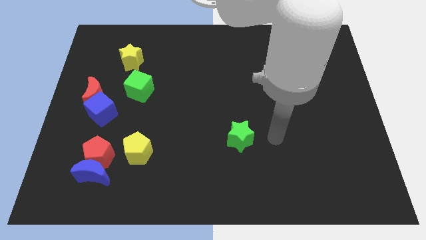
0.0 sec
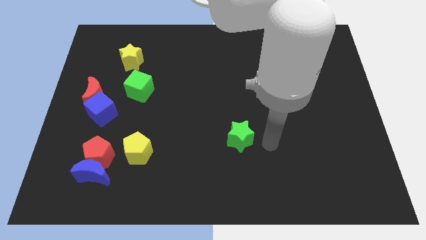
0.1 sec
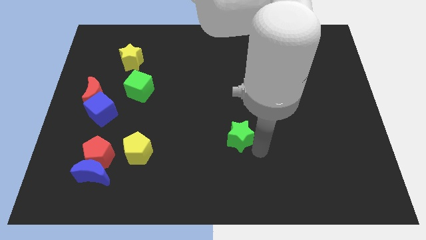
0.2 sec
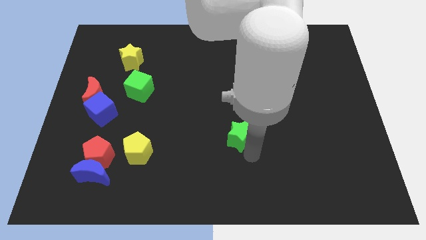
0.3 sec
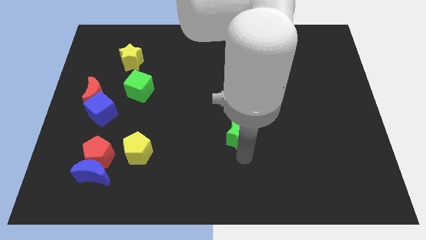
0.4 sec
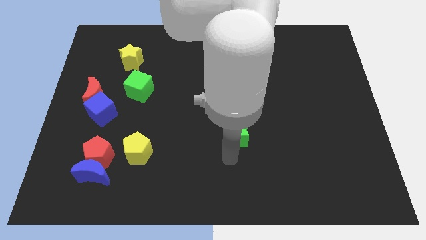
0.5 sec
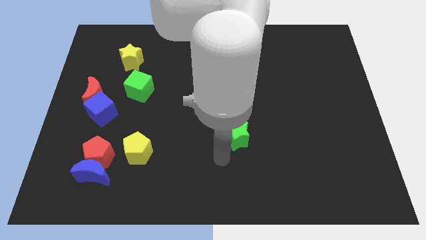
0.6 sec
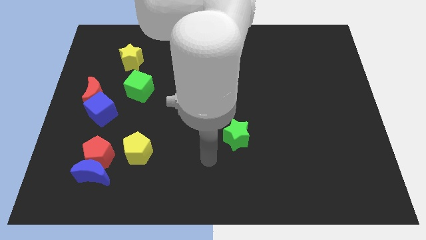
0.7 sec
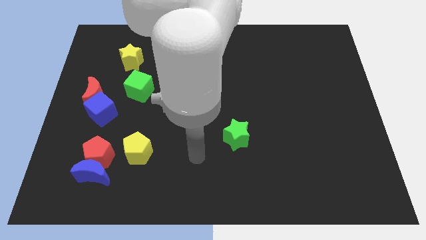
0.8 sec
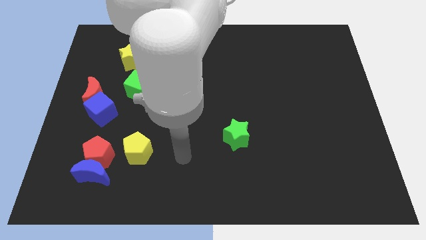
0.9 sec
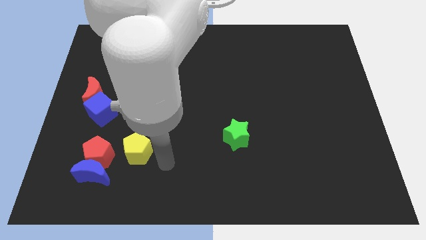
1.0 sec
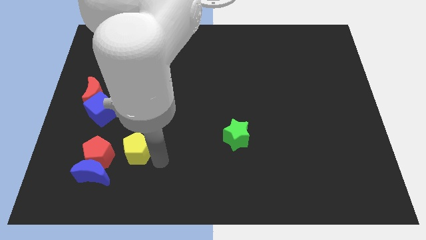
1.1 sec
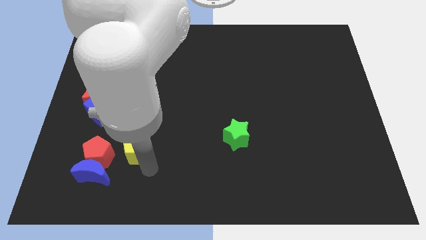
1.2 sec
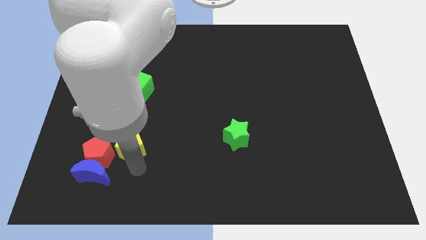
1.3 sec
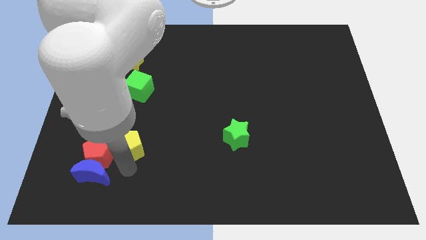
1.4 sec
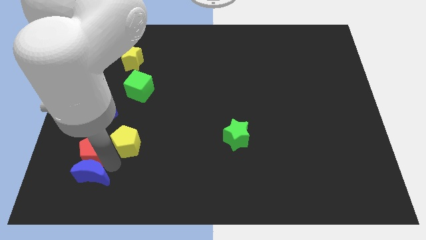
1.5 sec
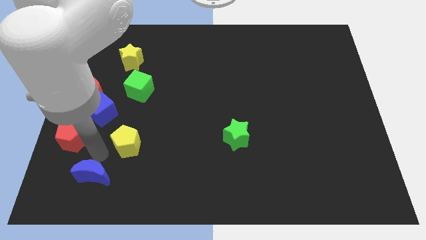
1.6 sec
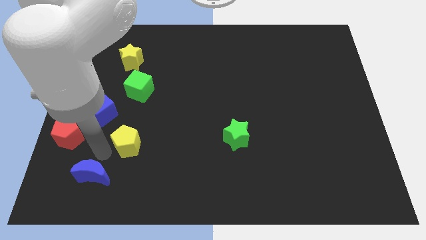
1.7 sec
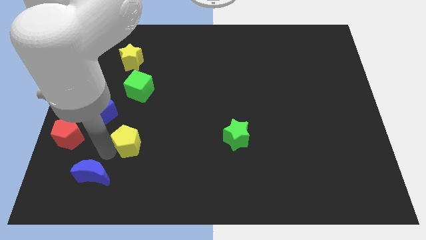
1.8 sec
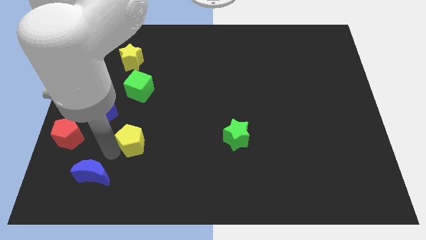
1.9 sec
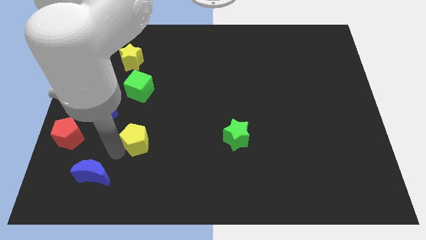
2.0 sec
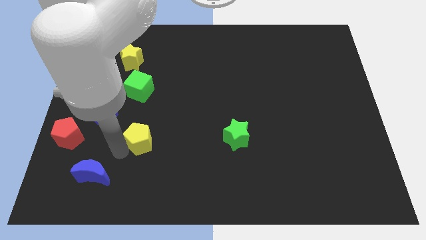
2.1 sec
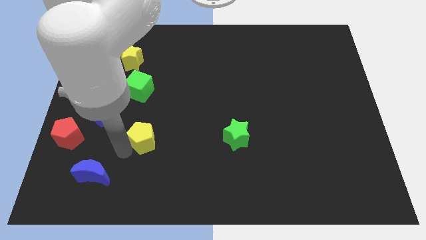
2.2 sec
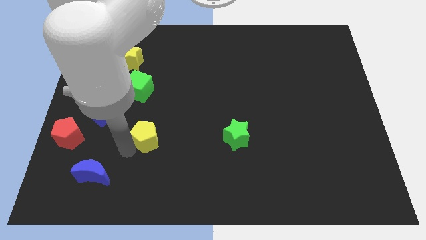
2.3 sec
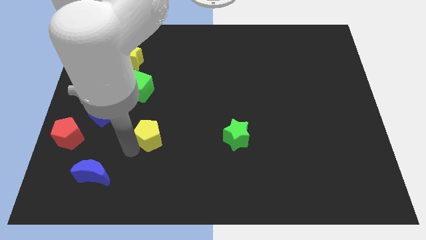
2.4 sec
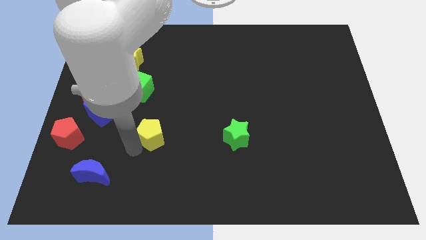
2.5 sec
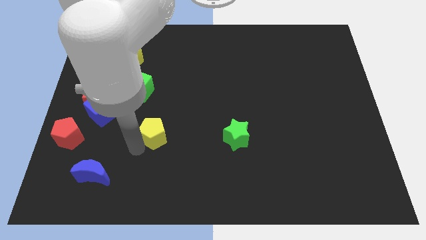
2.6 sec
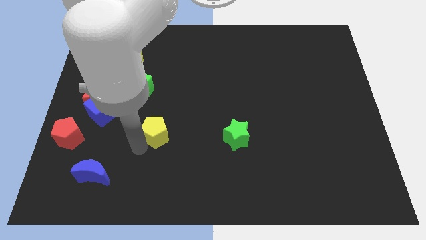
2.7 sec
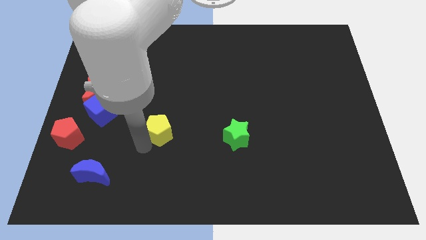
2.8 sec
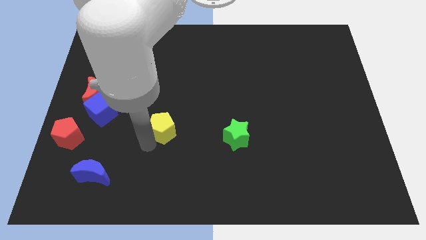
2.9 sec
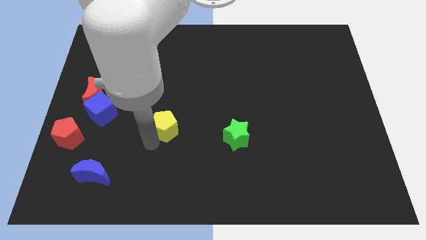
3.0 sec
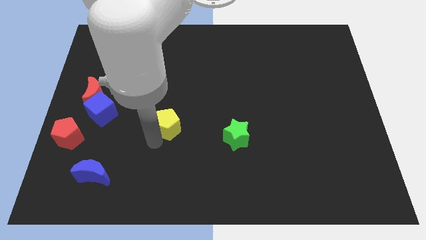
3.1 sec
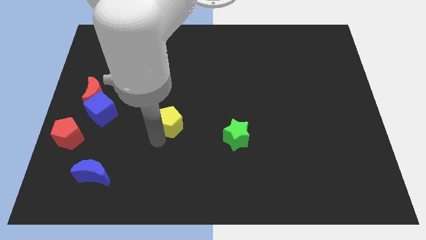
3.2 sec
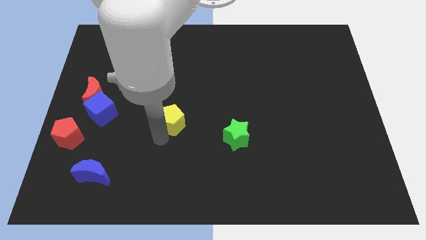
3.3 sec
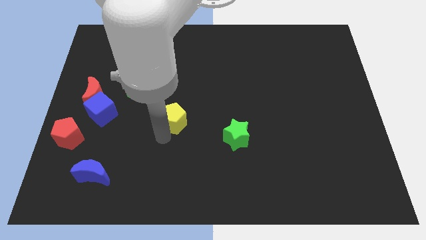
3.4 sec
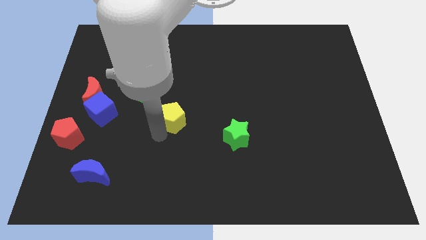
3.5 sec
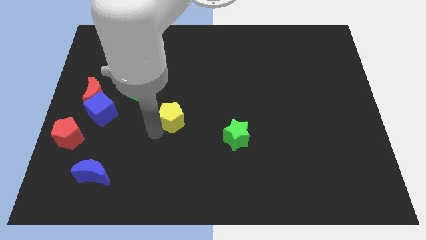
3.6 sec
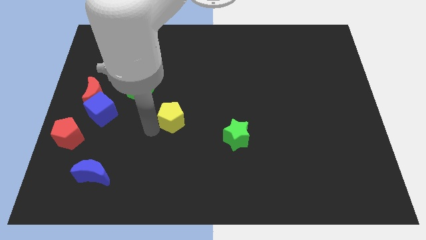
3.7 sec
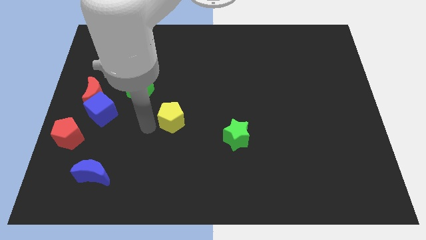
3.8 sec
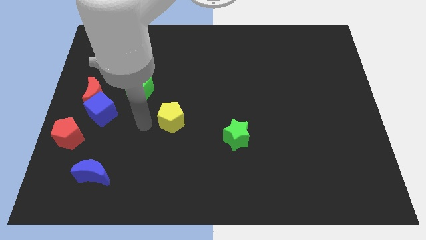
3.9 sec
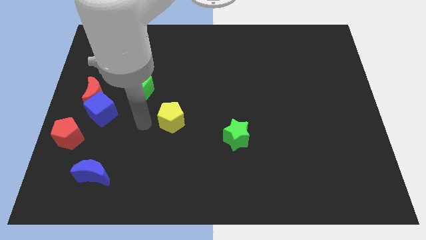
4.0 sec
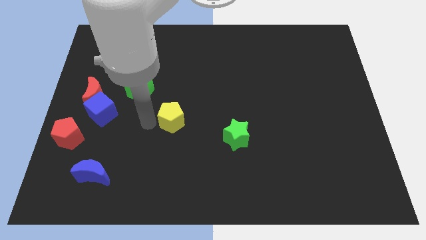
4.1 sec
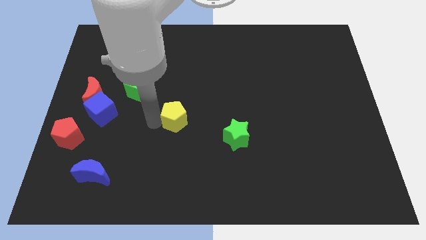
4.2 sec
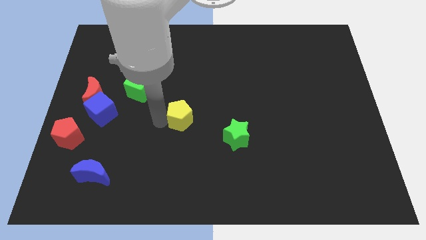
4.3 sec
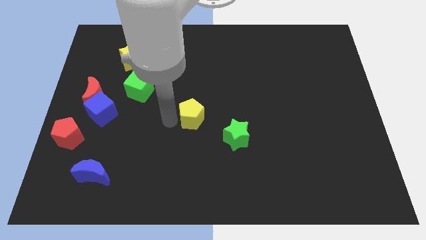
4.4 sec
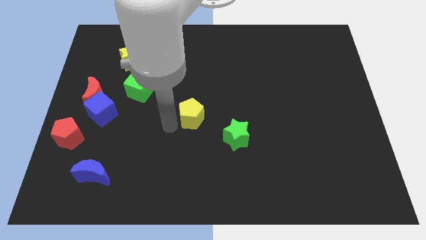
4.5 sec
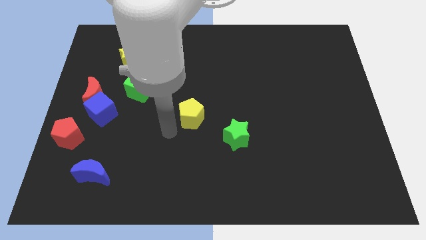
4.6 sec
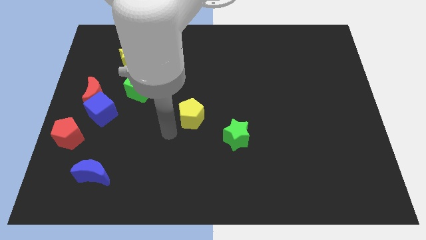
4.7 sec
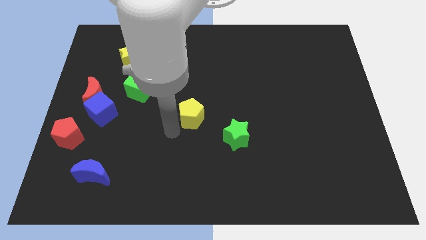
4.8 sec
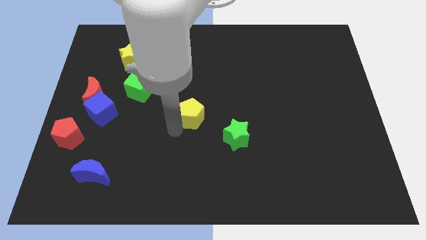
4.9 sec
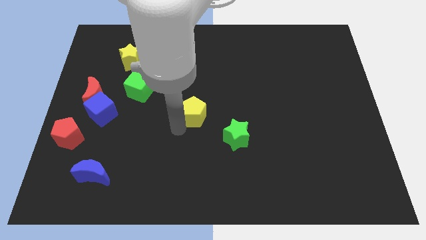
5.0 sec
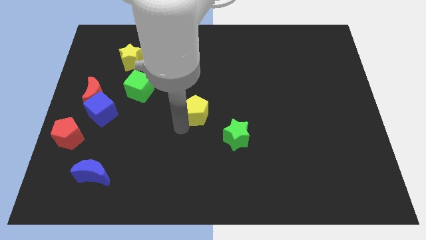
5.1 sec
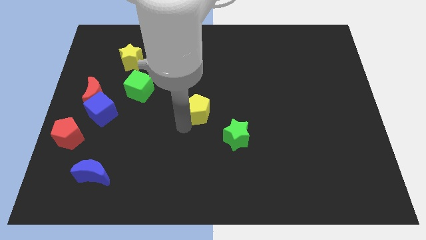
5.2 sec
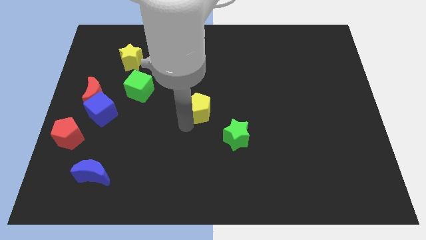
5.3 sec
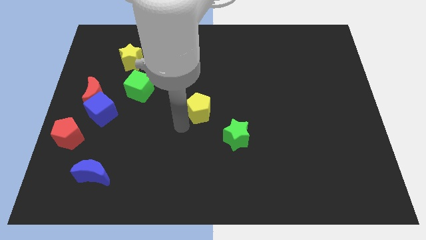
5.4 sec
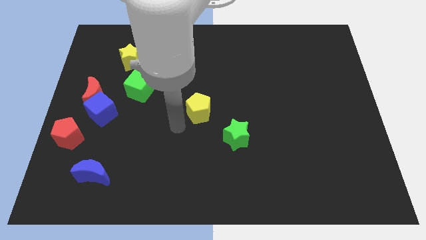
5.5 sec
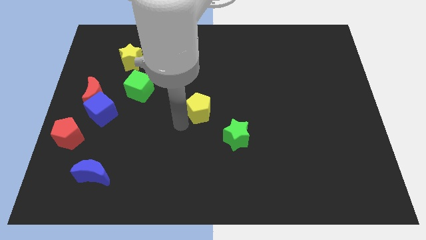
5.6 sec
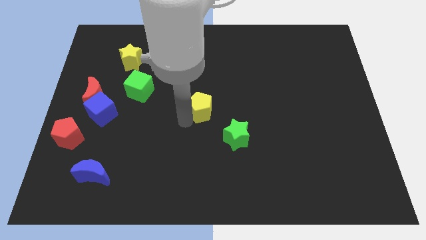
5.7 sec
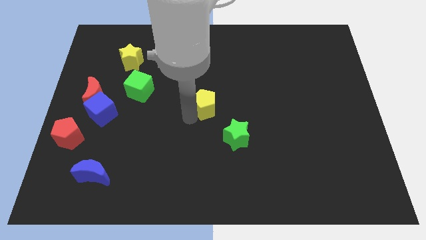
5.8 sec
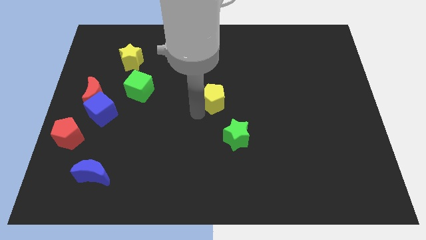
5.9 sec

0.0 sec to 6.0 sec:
move the yellow pentagon diagonally upwards and right

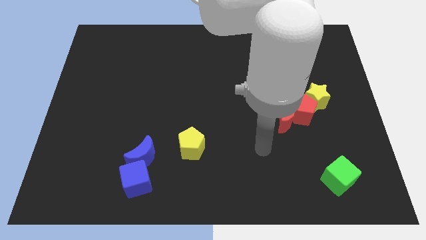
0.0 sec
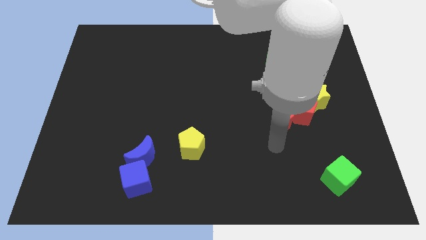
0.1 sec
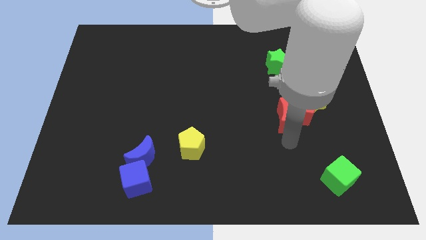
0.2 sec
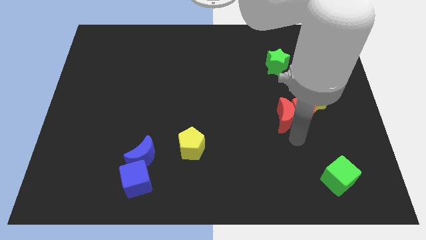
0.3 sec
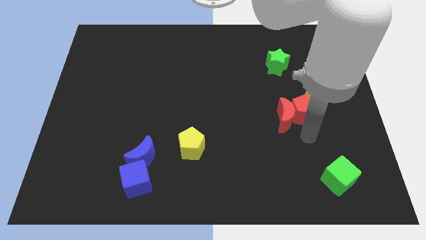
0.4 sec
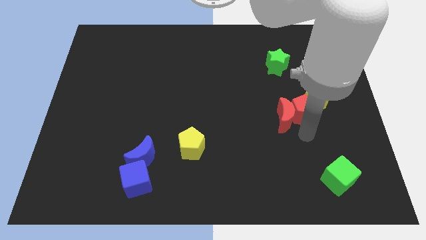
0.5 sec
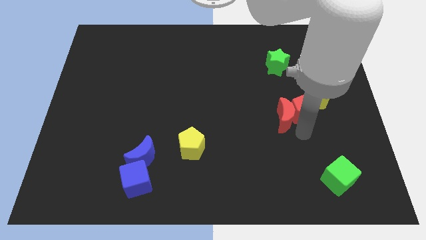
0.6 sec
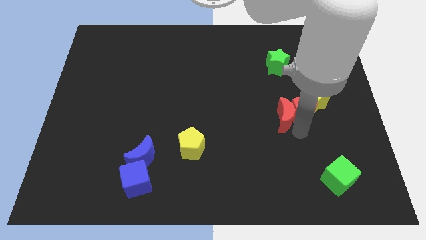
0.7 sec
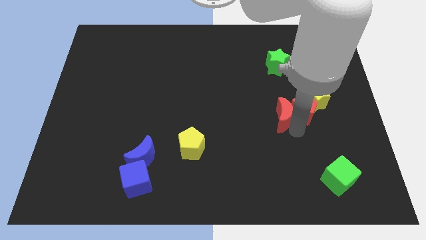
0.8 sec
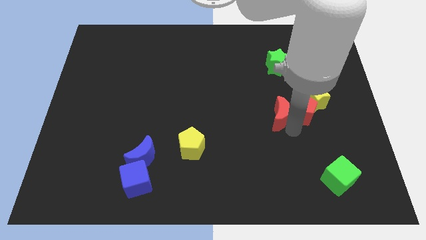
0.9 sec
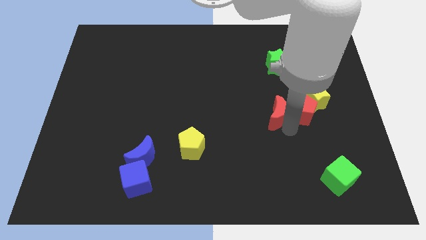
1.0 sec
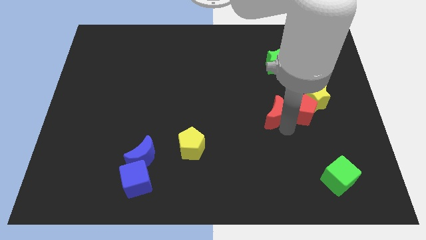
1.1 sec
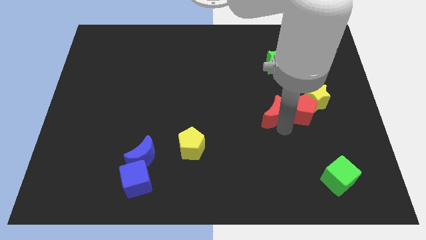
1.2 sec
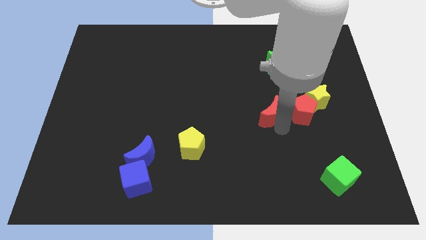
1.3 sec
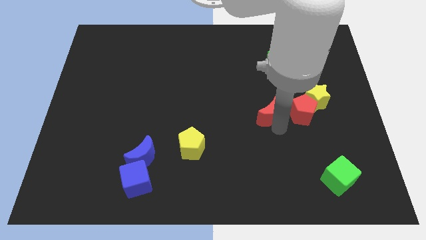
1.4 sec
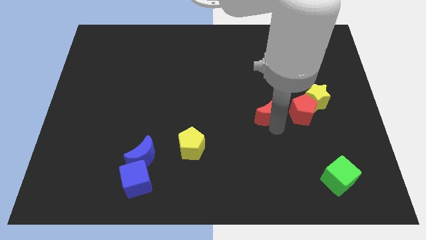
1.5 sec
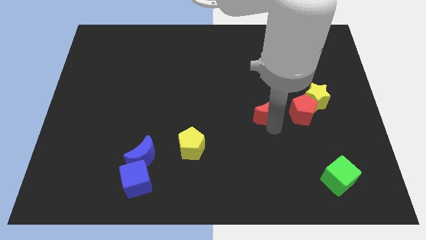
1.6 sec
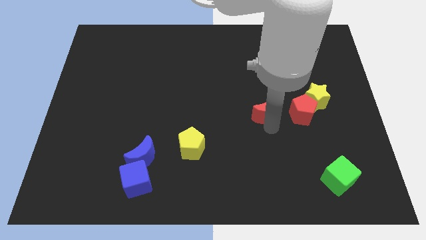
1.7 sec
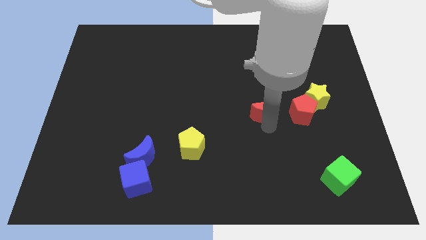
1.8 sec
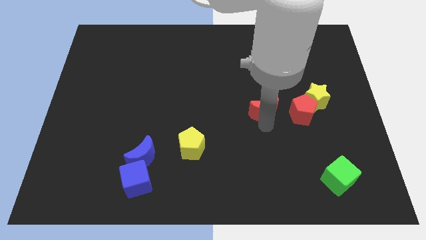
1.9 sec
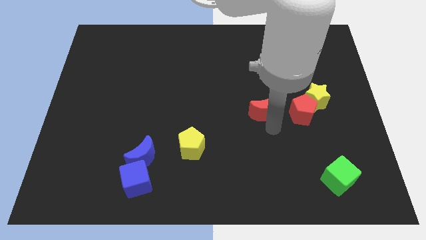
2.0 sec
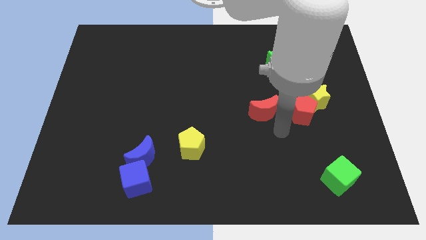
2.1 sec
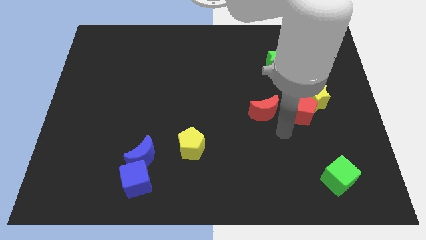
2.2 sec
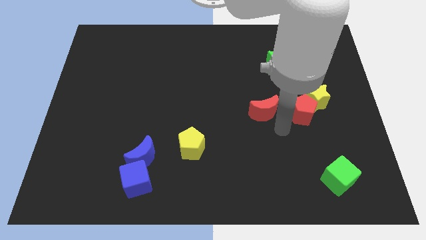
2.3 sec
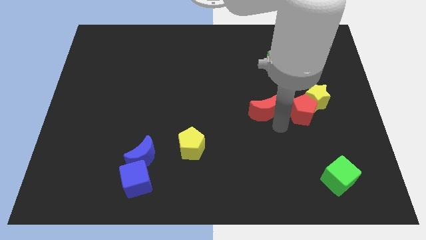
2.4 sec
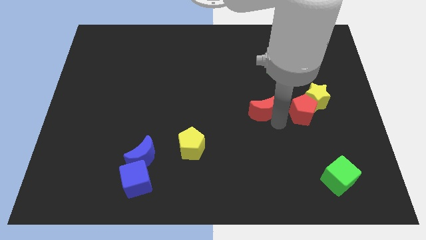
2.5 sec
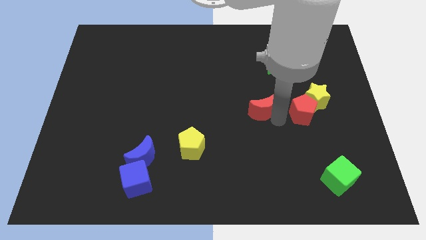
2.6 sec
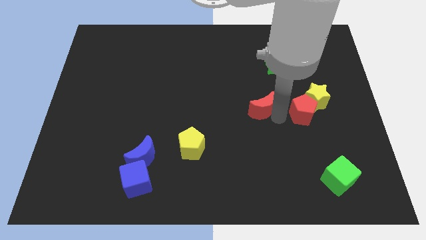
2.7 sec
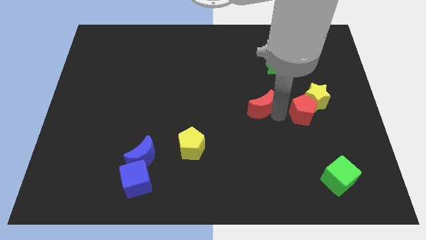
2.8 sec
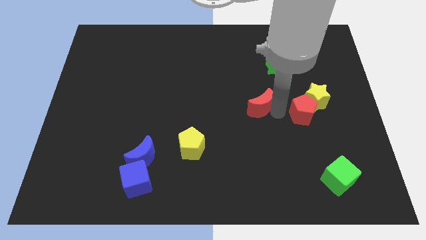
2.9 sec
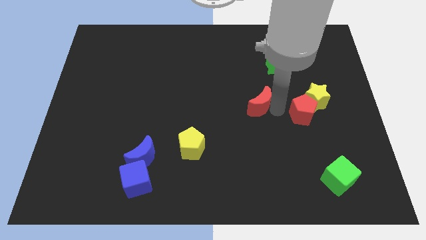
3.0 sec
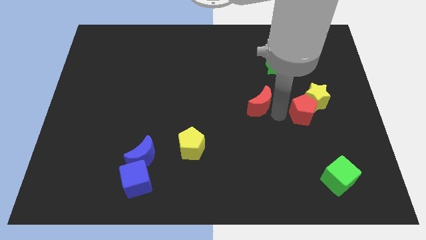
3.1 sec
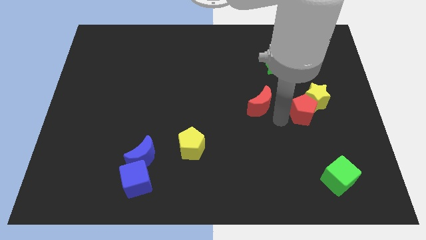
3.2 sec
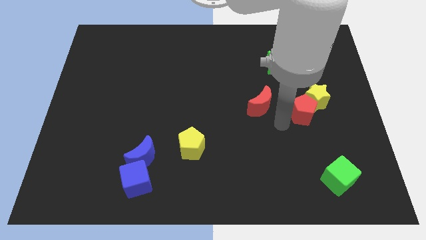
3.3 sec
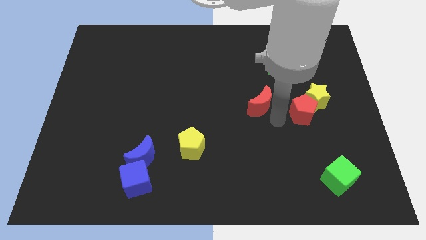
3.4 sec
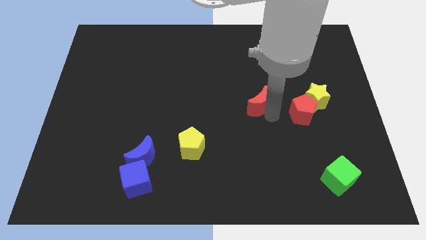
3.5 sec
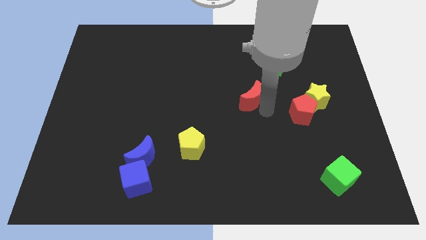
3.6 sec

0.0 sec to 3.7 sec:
slightly push the red moon diagonally upwards and to the left
